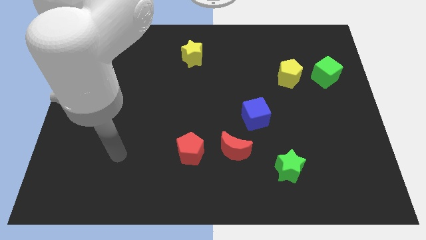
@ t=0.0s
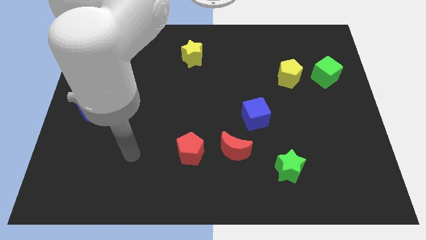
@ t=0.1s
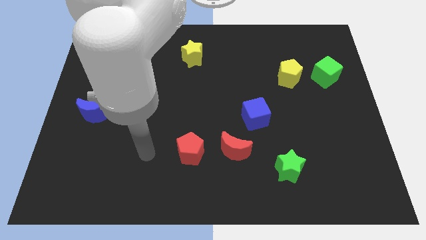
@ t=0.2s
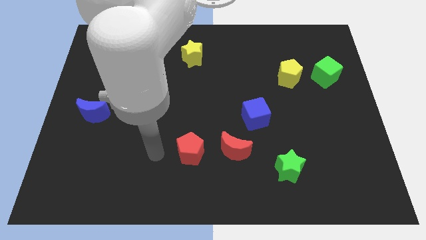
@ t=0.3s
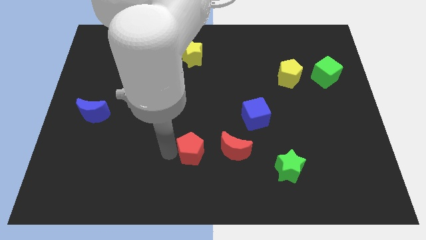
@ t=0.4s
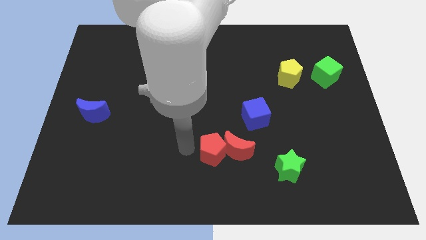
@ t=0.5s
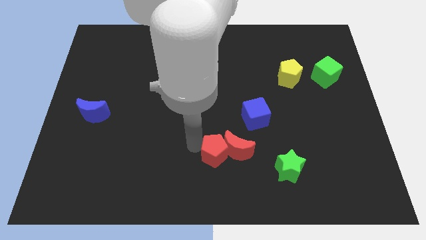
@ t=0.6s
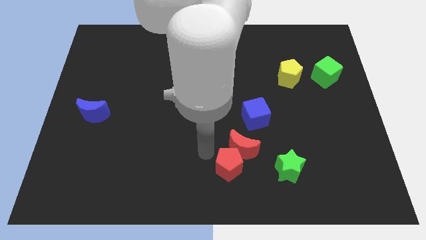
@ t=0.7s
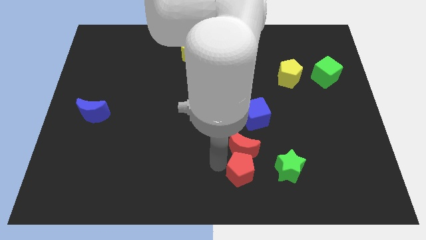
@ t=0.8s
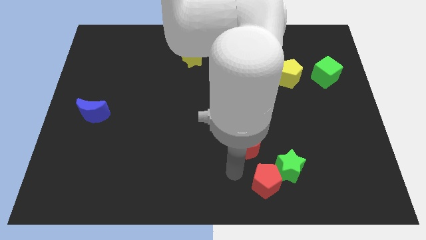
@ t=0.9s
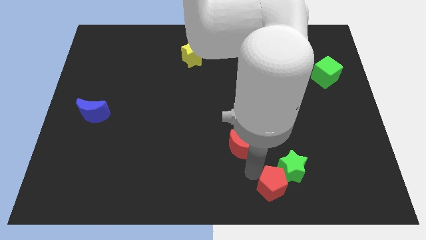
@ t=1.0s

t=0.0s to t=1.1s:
move the red moon away from the red pentagon
